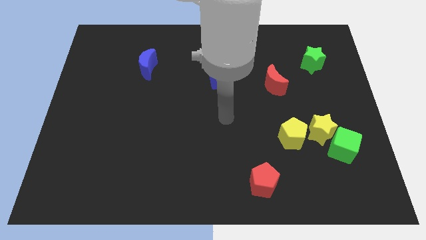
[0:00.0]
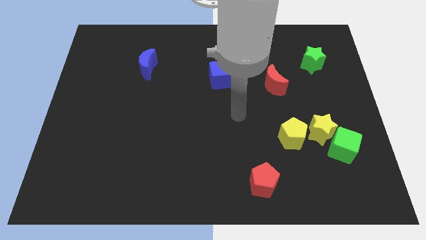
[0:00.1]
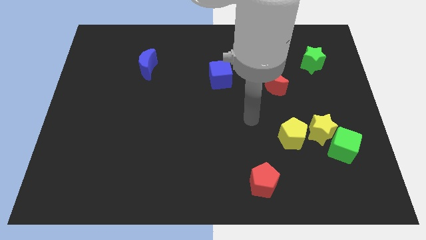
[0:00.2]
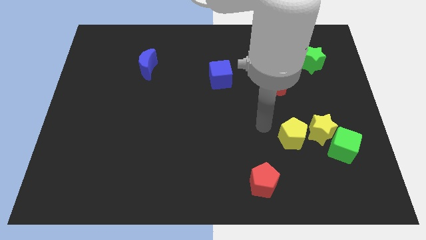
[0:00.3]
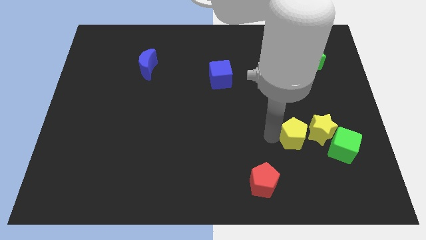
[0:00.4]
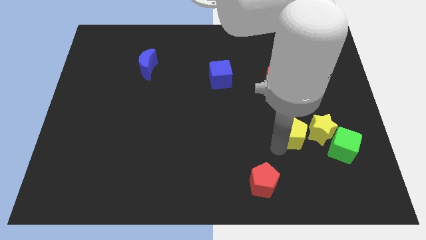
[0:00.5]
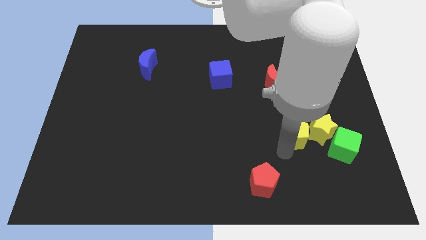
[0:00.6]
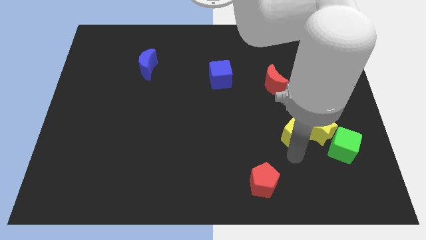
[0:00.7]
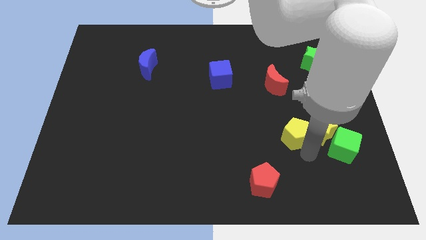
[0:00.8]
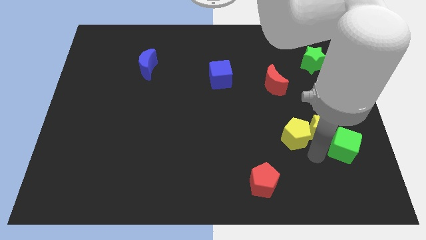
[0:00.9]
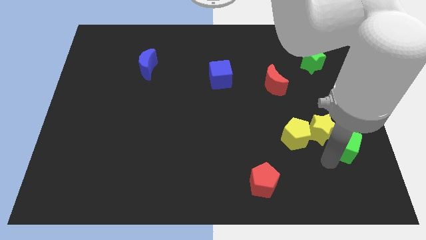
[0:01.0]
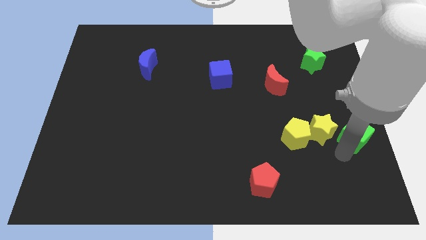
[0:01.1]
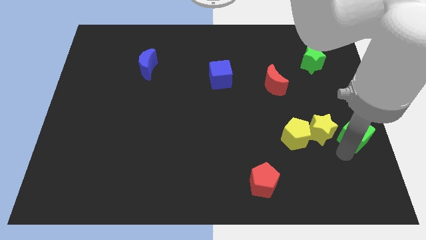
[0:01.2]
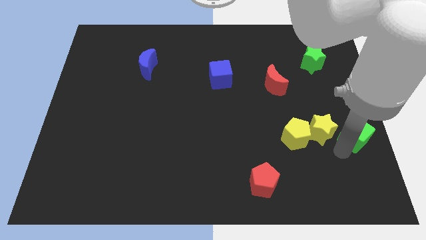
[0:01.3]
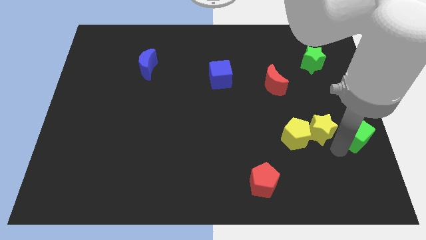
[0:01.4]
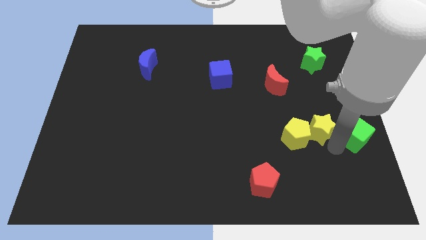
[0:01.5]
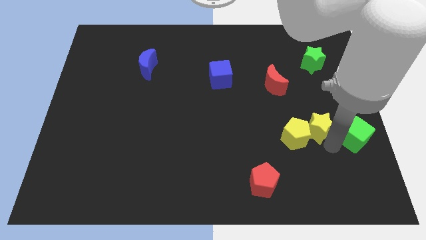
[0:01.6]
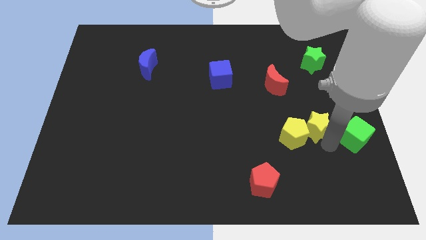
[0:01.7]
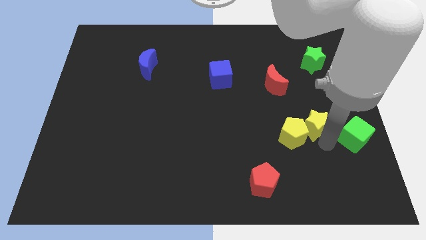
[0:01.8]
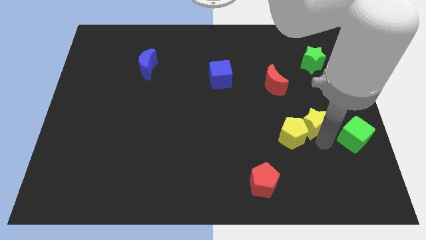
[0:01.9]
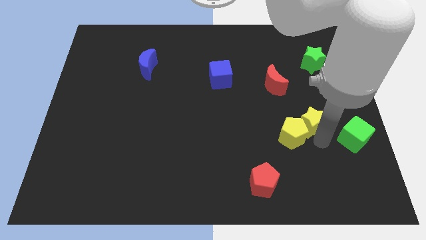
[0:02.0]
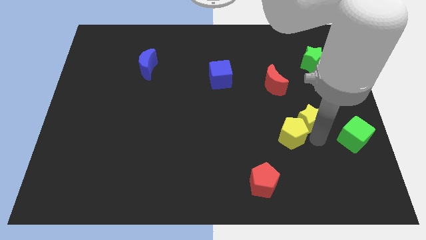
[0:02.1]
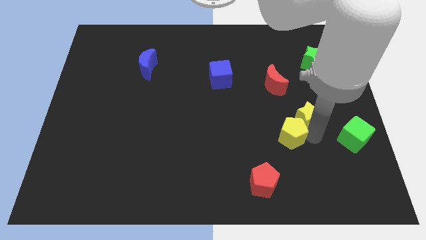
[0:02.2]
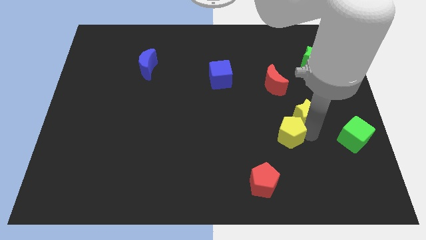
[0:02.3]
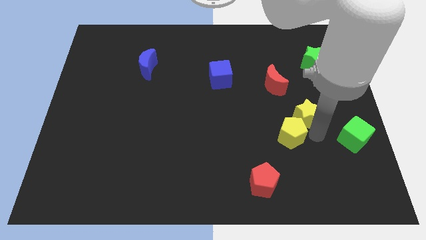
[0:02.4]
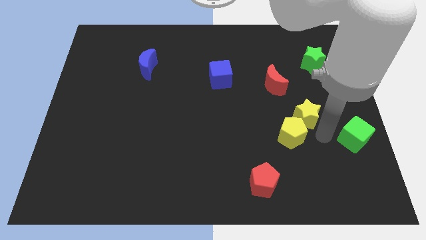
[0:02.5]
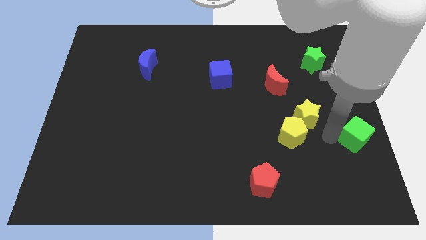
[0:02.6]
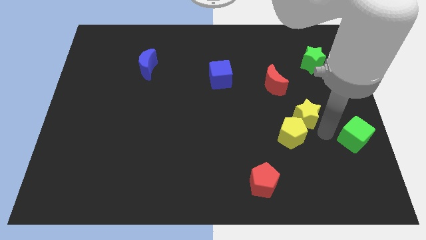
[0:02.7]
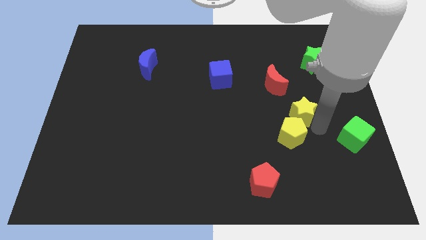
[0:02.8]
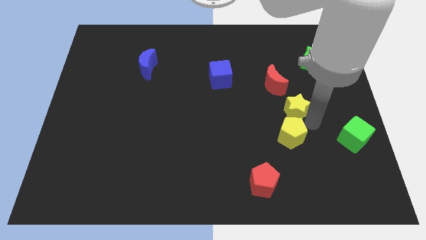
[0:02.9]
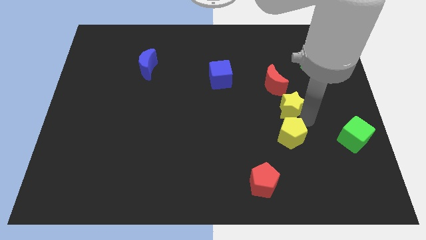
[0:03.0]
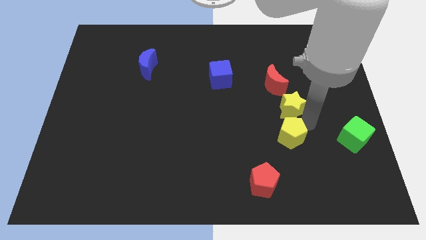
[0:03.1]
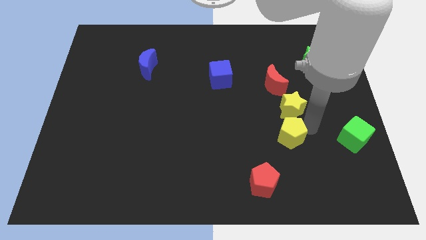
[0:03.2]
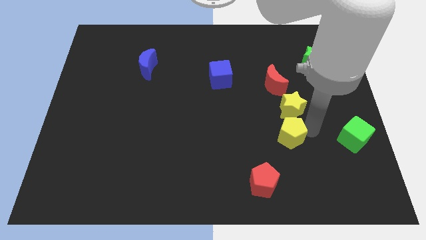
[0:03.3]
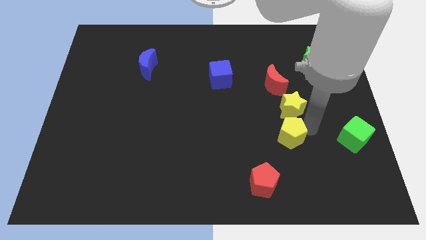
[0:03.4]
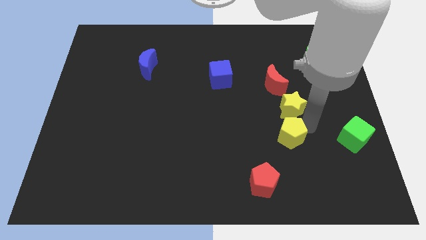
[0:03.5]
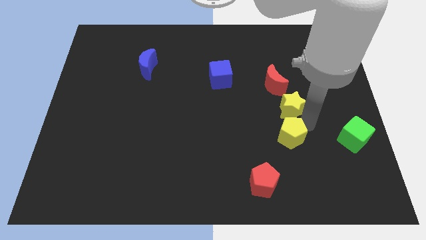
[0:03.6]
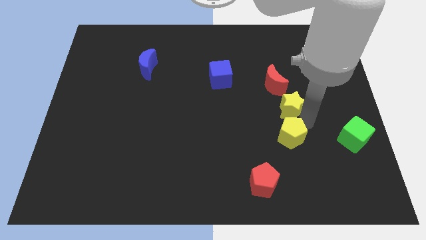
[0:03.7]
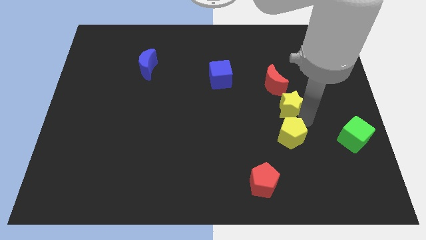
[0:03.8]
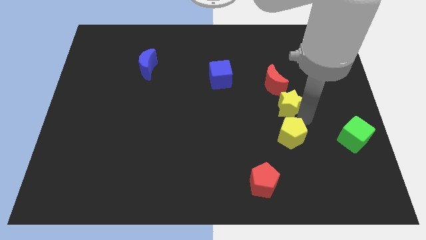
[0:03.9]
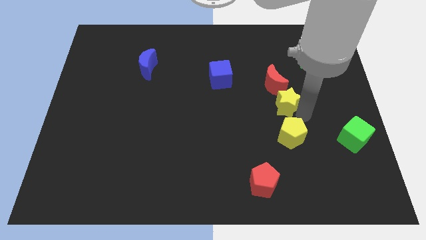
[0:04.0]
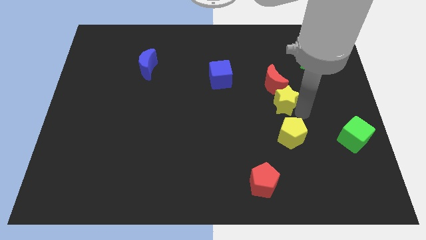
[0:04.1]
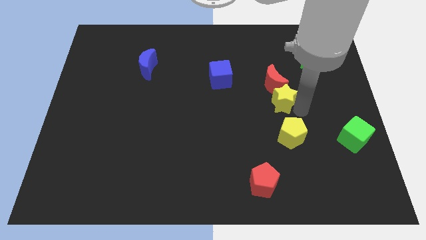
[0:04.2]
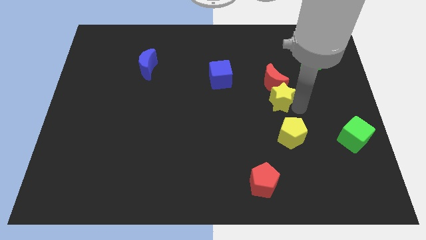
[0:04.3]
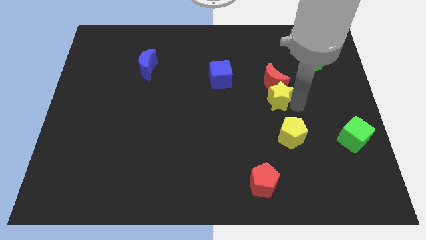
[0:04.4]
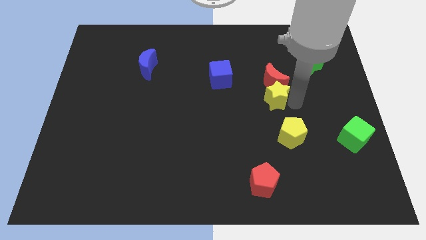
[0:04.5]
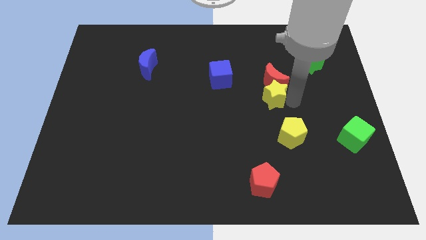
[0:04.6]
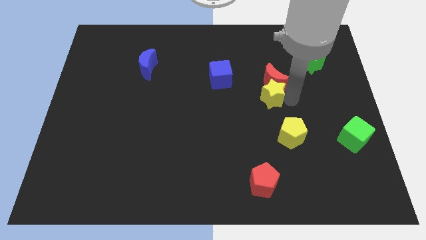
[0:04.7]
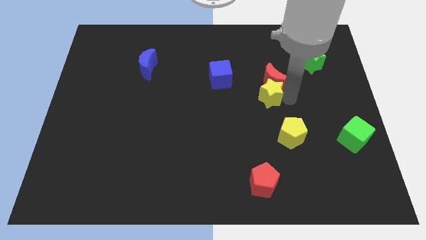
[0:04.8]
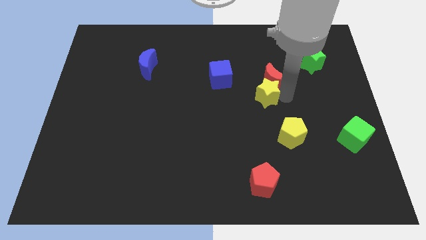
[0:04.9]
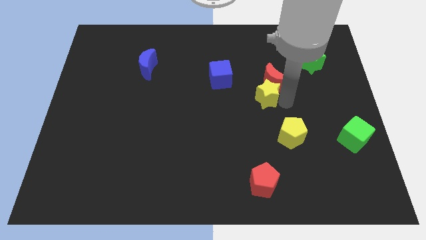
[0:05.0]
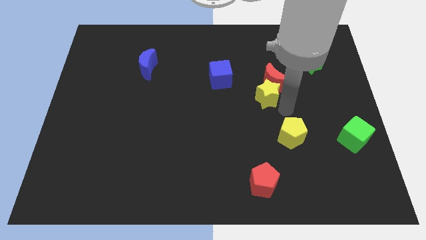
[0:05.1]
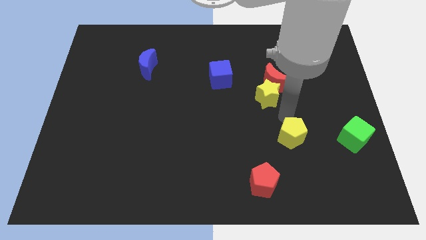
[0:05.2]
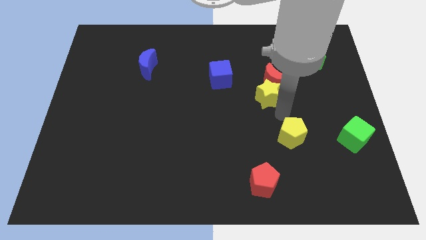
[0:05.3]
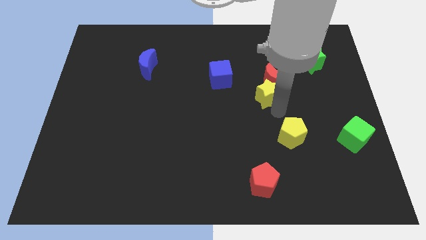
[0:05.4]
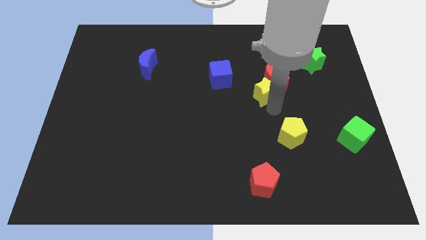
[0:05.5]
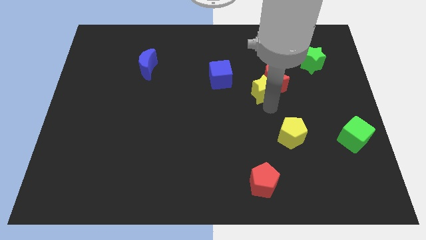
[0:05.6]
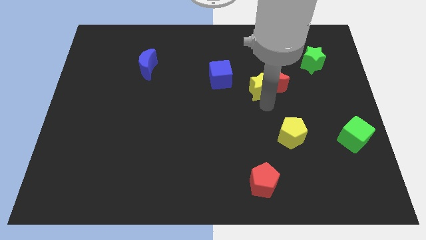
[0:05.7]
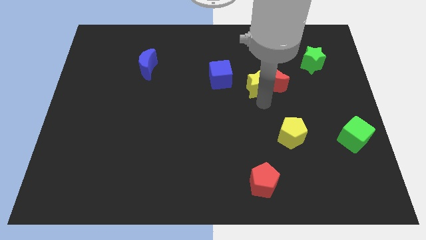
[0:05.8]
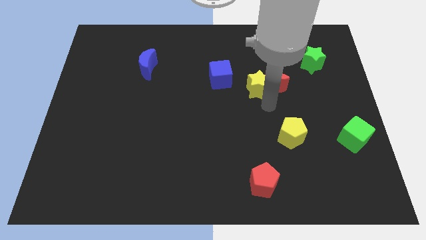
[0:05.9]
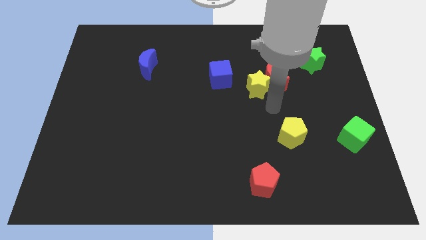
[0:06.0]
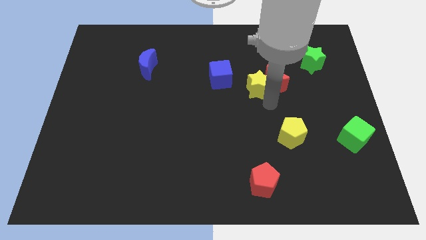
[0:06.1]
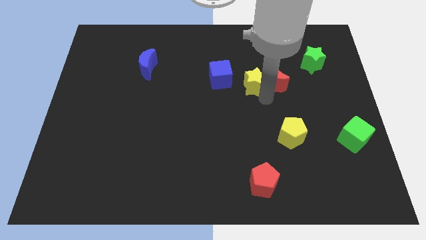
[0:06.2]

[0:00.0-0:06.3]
move the yellow star up and to the left

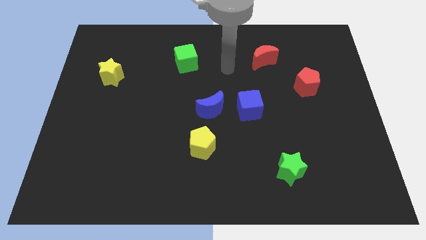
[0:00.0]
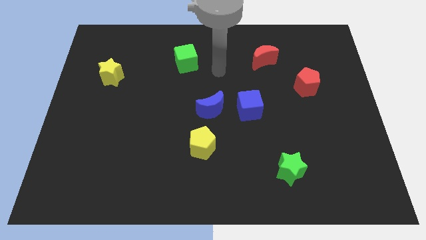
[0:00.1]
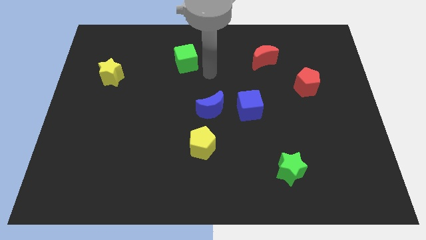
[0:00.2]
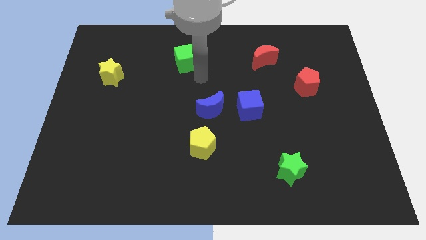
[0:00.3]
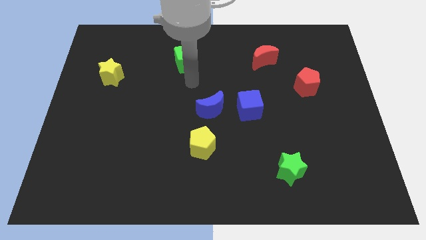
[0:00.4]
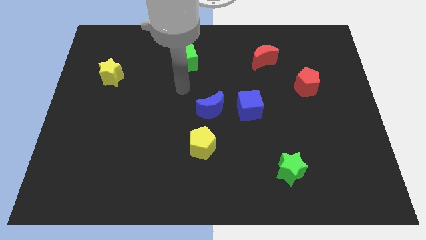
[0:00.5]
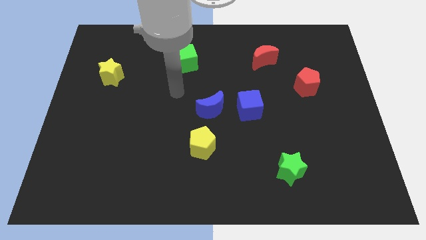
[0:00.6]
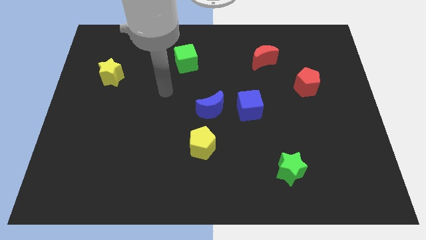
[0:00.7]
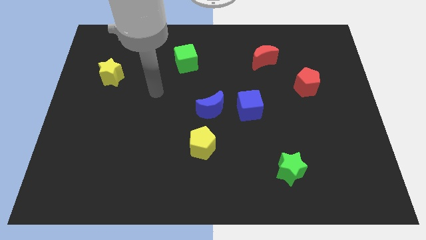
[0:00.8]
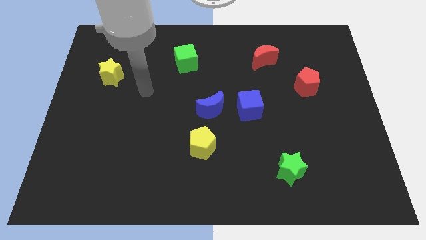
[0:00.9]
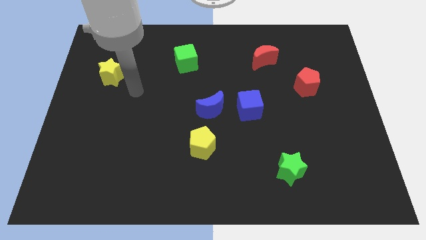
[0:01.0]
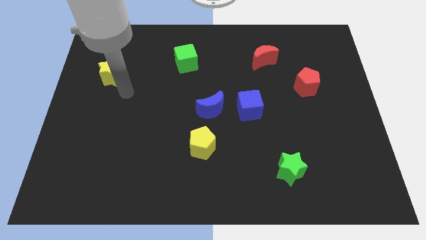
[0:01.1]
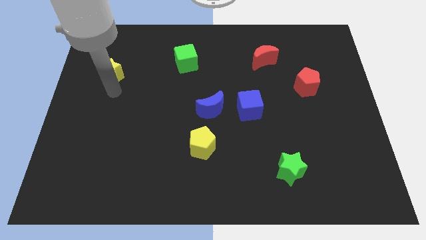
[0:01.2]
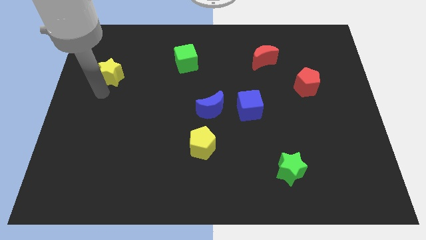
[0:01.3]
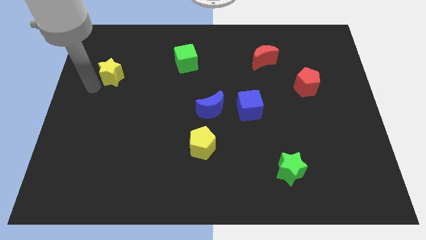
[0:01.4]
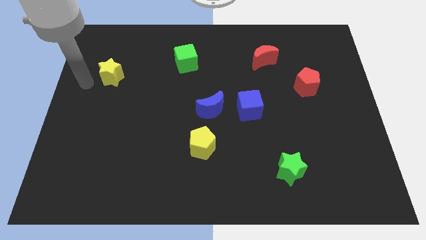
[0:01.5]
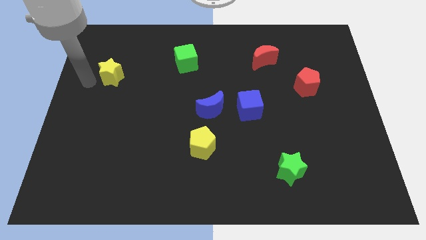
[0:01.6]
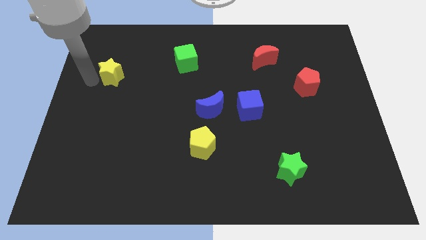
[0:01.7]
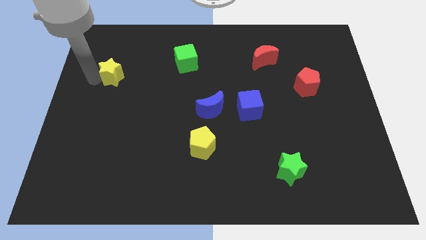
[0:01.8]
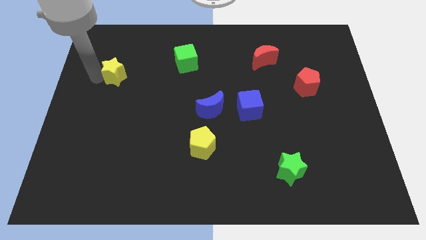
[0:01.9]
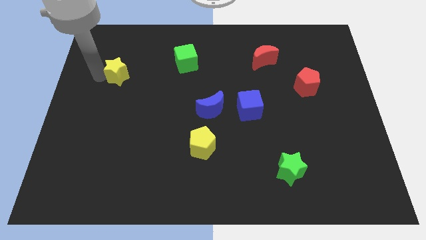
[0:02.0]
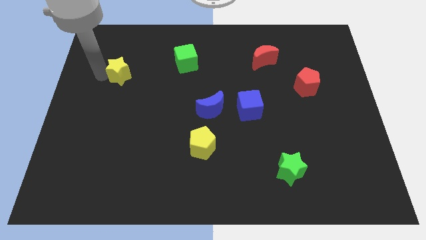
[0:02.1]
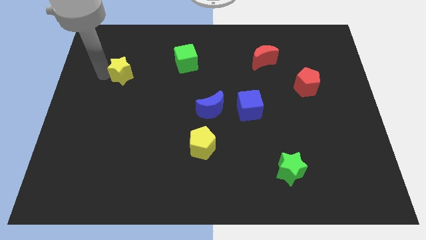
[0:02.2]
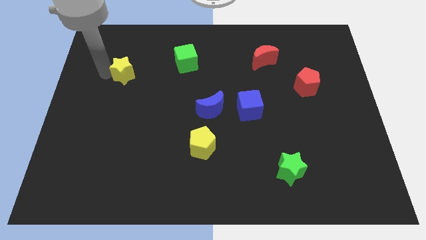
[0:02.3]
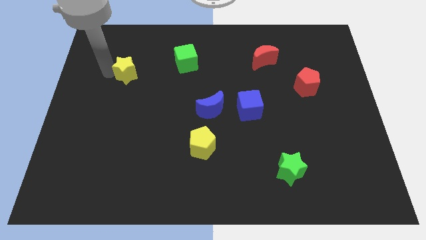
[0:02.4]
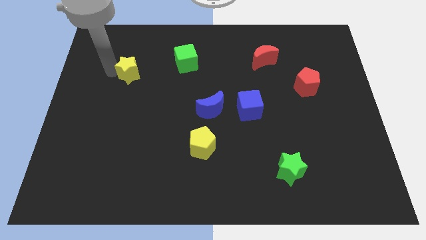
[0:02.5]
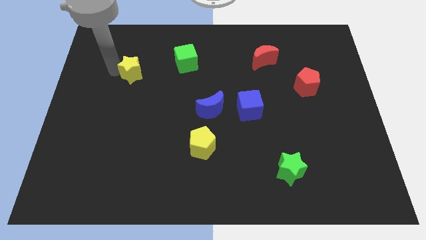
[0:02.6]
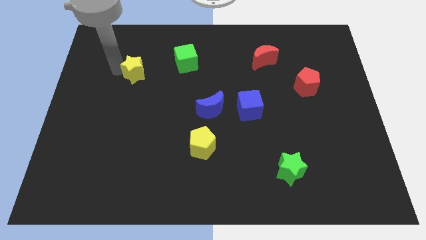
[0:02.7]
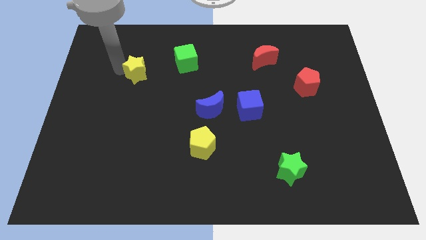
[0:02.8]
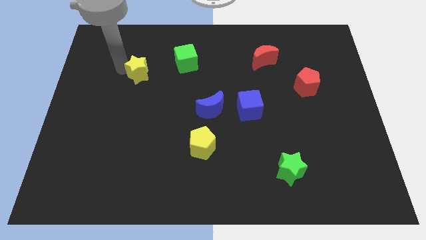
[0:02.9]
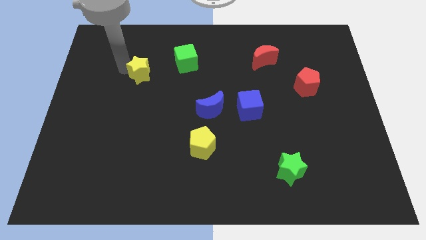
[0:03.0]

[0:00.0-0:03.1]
move the yellow star right slightly
